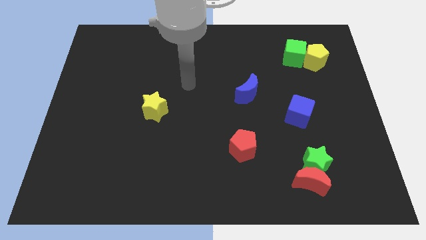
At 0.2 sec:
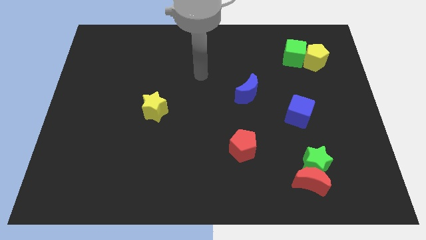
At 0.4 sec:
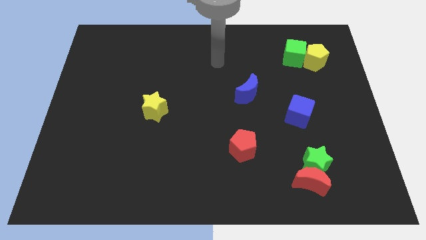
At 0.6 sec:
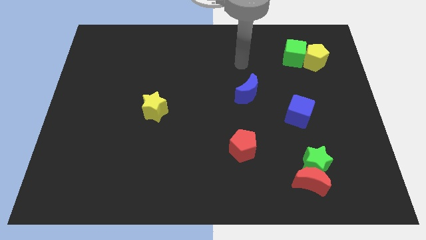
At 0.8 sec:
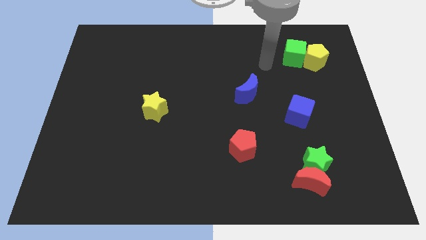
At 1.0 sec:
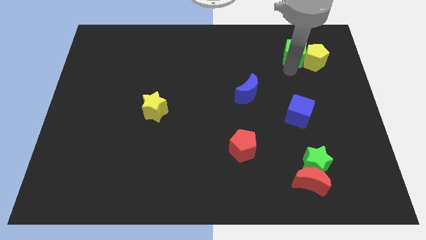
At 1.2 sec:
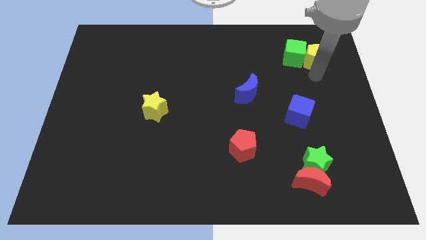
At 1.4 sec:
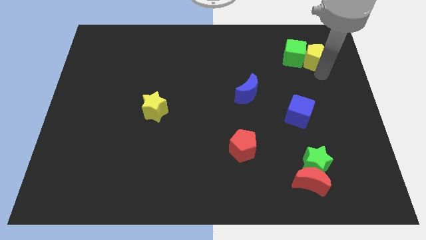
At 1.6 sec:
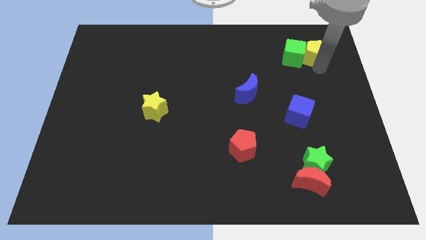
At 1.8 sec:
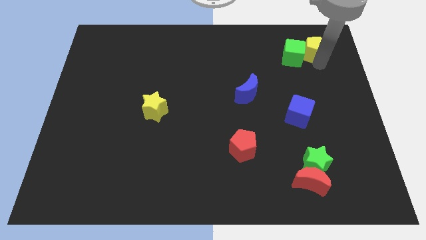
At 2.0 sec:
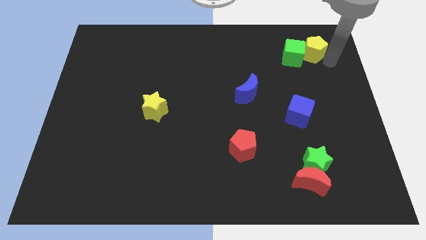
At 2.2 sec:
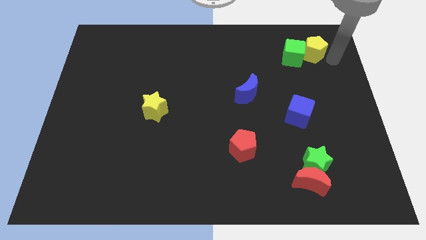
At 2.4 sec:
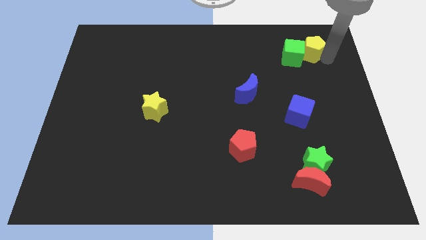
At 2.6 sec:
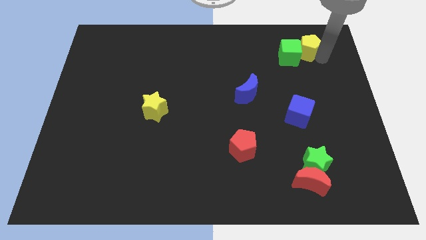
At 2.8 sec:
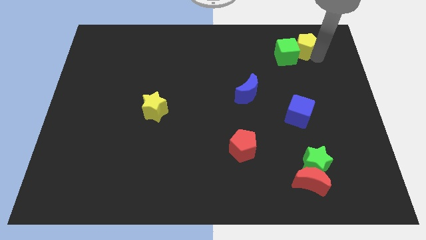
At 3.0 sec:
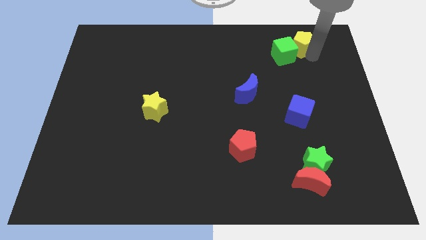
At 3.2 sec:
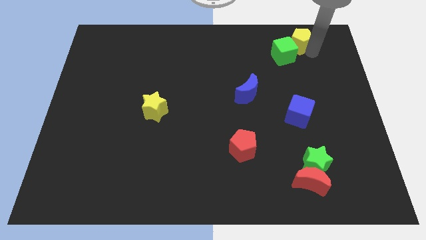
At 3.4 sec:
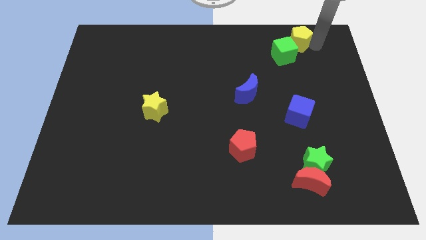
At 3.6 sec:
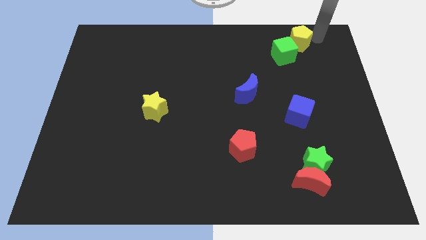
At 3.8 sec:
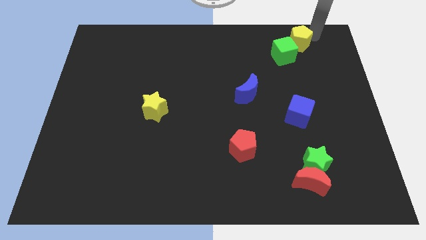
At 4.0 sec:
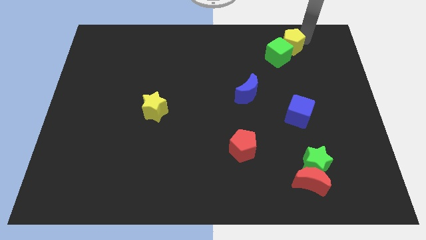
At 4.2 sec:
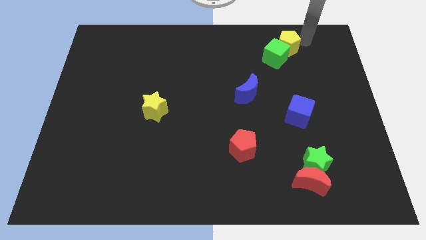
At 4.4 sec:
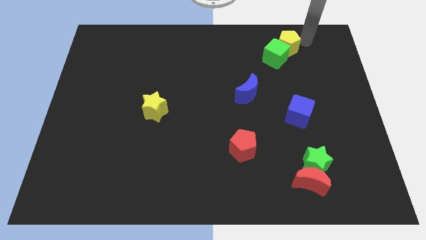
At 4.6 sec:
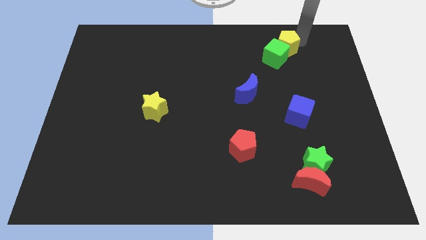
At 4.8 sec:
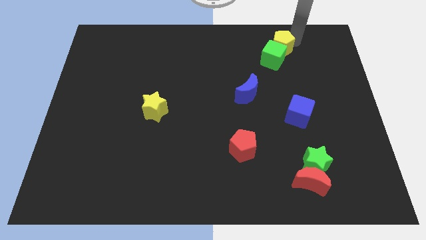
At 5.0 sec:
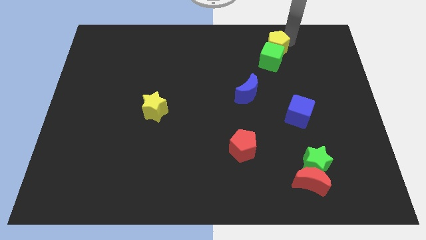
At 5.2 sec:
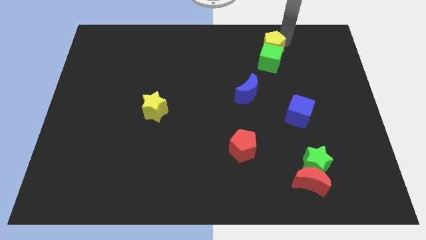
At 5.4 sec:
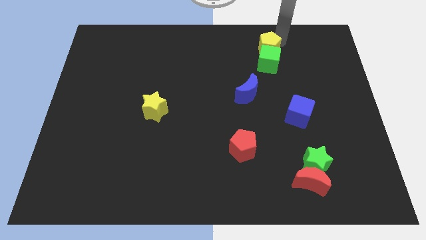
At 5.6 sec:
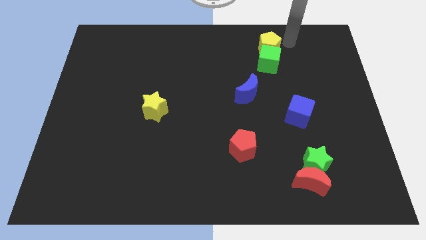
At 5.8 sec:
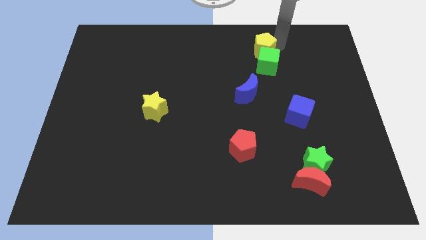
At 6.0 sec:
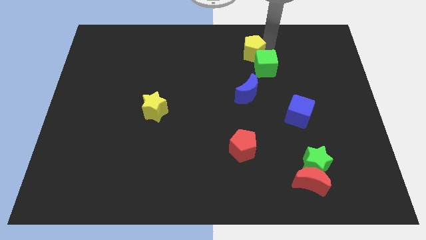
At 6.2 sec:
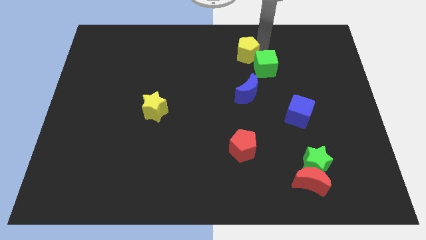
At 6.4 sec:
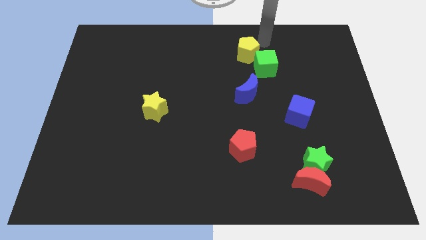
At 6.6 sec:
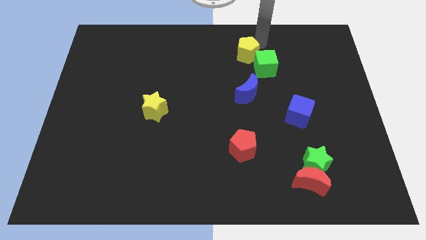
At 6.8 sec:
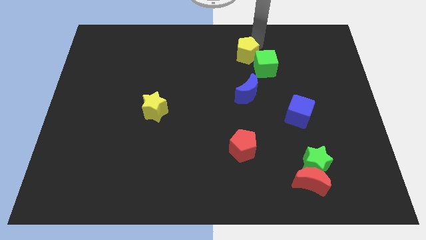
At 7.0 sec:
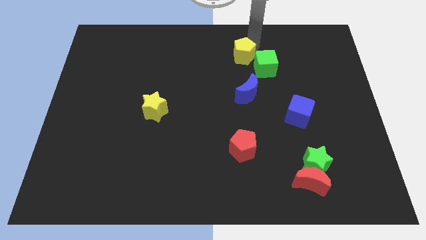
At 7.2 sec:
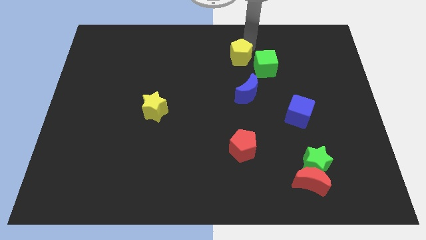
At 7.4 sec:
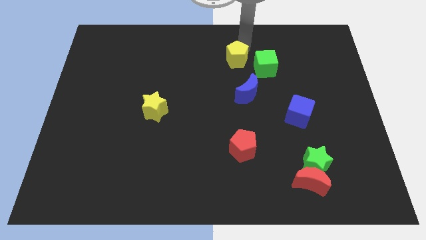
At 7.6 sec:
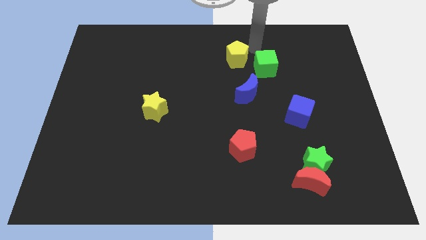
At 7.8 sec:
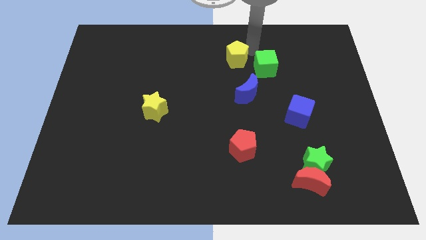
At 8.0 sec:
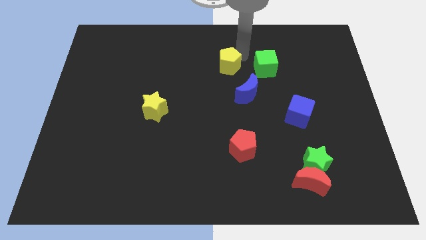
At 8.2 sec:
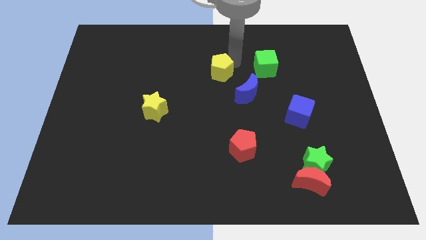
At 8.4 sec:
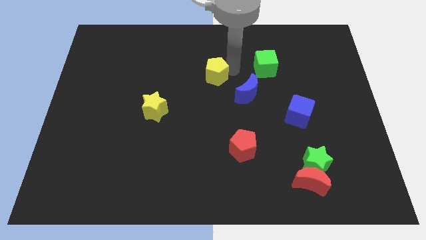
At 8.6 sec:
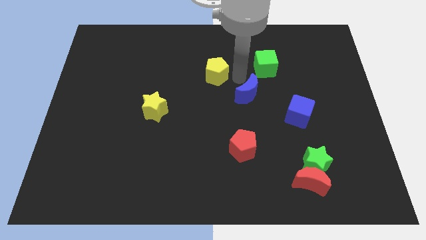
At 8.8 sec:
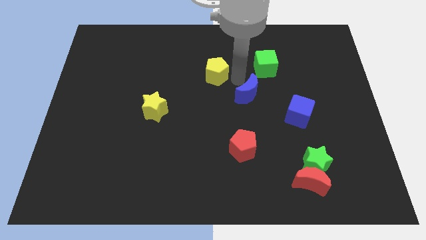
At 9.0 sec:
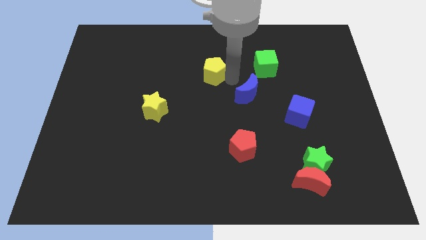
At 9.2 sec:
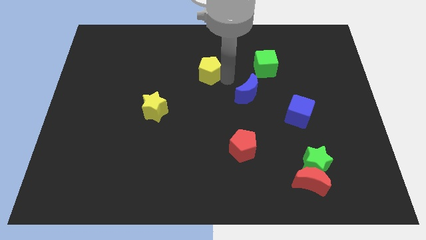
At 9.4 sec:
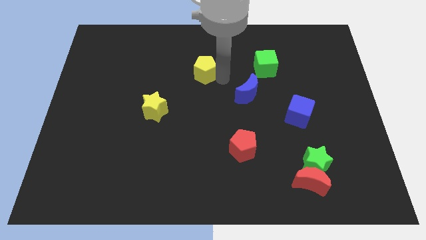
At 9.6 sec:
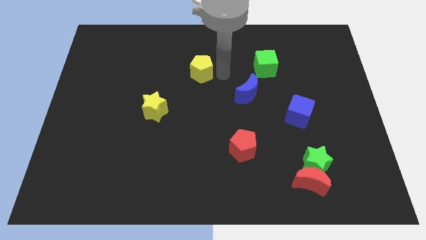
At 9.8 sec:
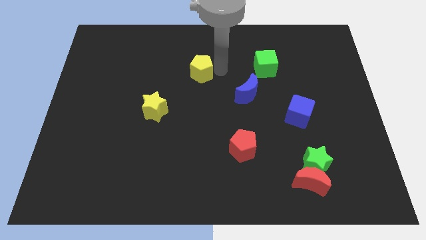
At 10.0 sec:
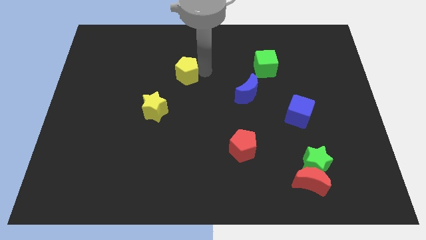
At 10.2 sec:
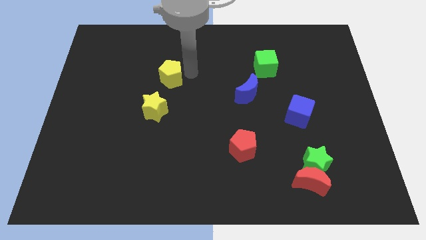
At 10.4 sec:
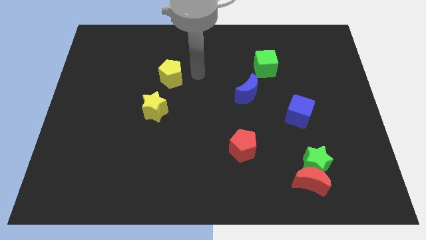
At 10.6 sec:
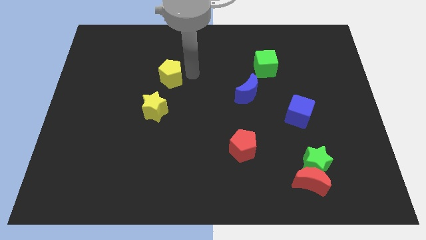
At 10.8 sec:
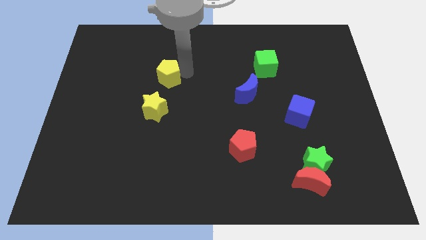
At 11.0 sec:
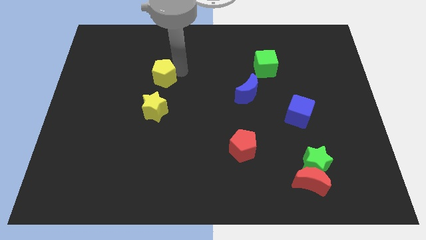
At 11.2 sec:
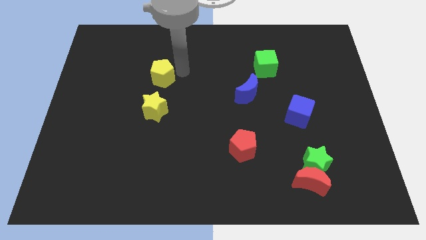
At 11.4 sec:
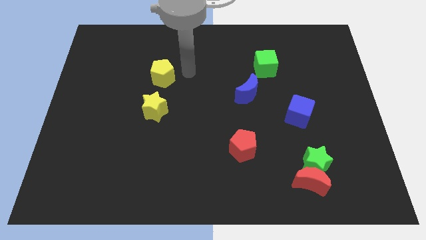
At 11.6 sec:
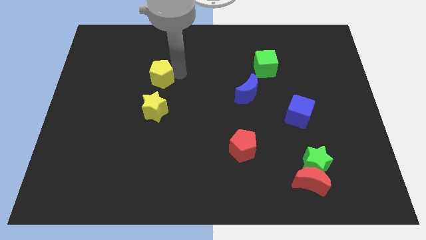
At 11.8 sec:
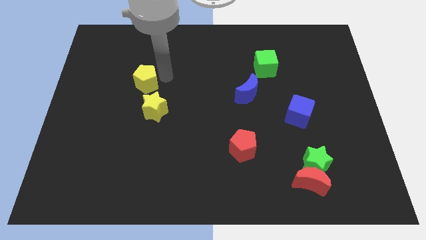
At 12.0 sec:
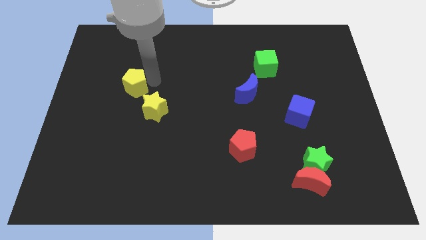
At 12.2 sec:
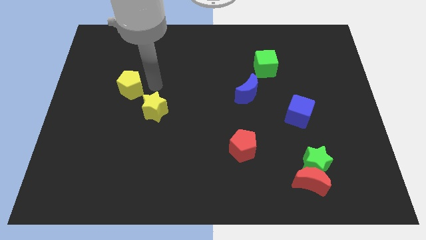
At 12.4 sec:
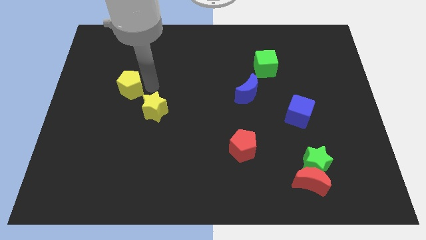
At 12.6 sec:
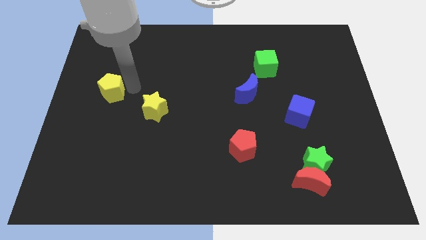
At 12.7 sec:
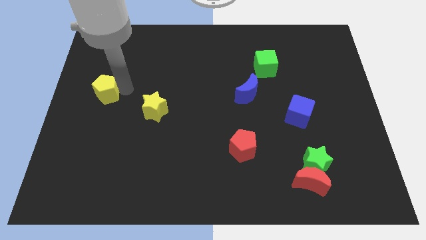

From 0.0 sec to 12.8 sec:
push the yellow pentagon to the left side of the board

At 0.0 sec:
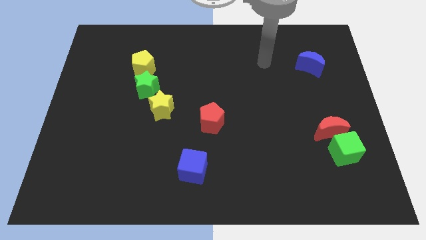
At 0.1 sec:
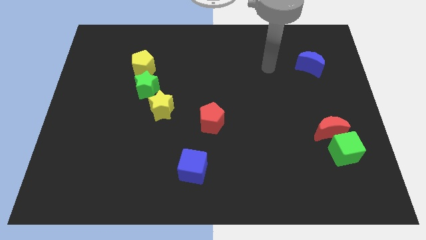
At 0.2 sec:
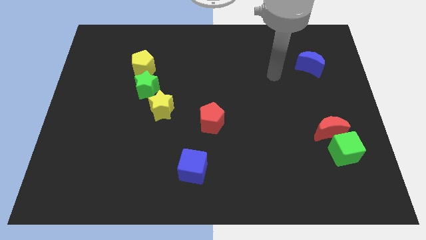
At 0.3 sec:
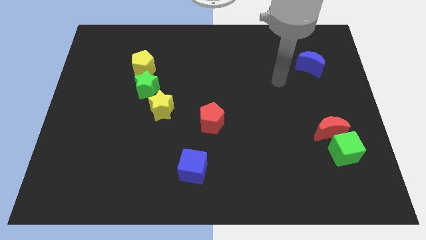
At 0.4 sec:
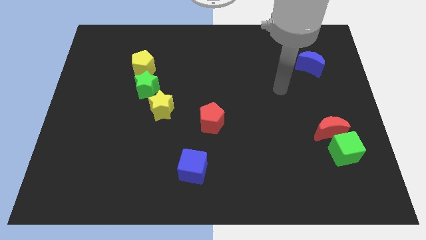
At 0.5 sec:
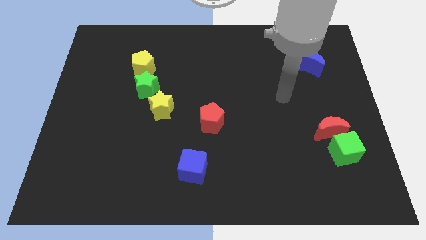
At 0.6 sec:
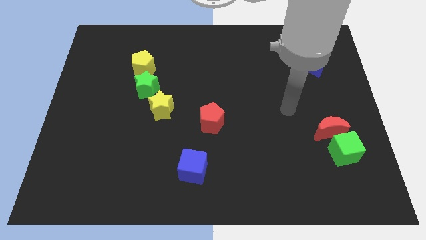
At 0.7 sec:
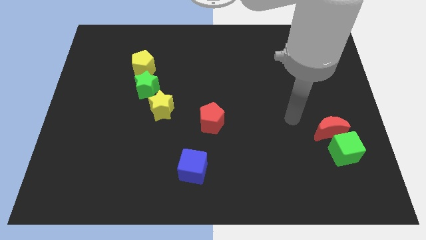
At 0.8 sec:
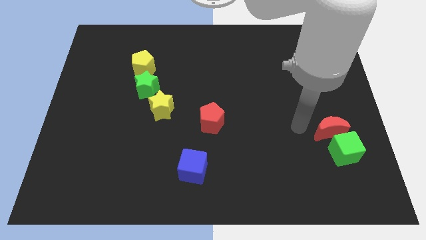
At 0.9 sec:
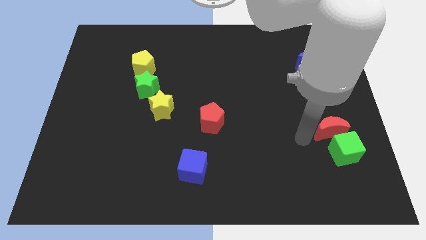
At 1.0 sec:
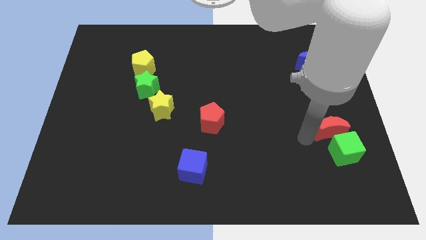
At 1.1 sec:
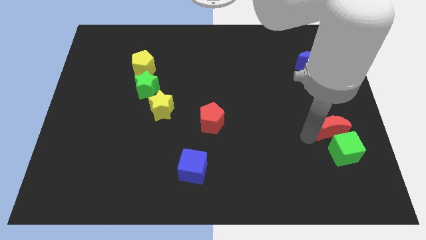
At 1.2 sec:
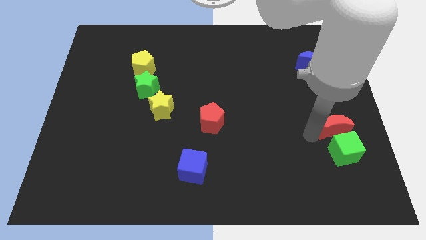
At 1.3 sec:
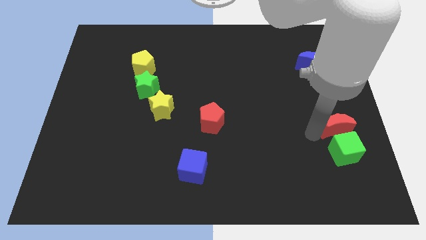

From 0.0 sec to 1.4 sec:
push the red moon to the center right
